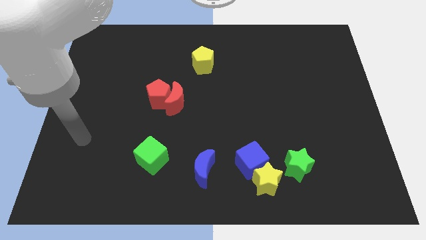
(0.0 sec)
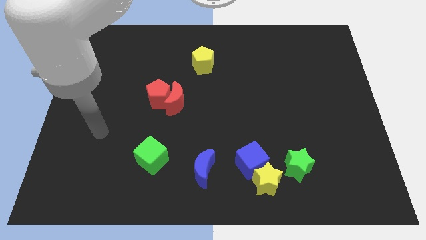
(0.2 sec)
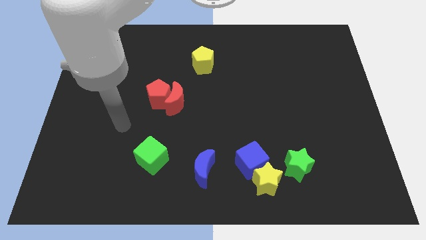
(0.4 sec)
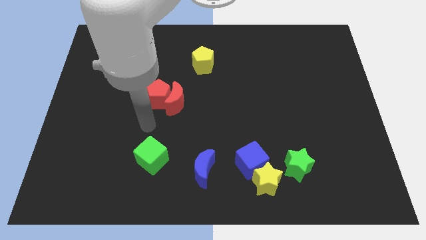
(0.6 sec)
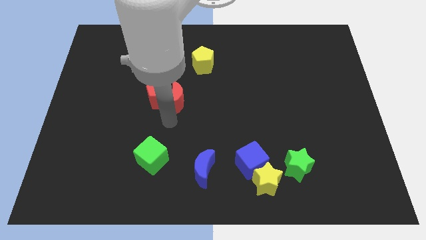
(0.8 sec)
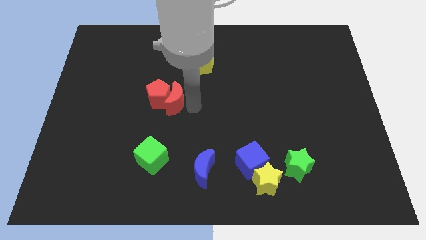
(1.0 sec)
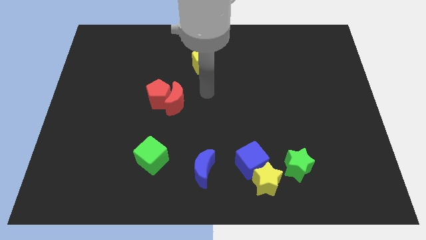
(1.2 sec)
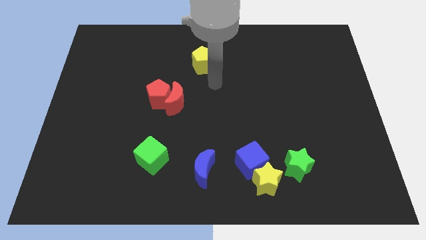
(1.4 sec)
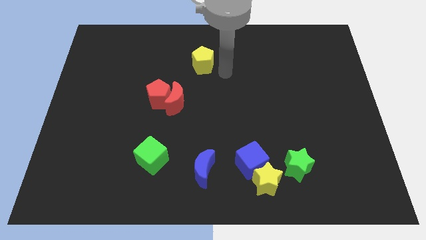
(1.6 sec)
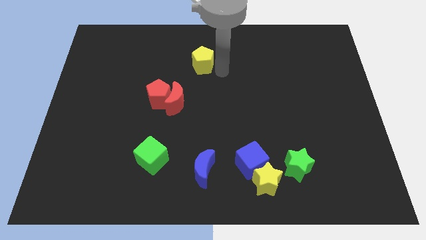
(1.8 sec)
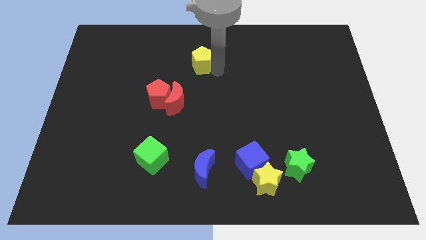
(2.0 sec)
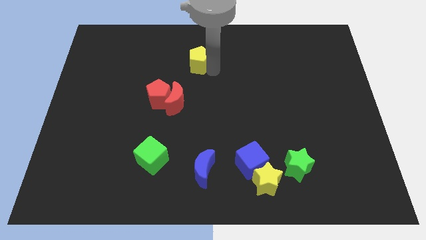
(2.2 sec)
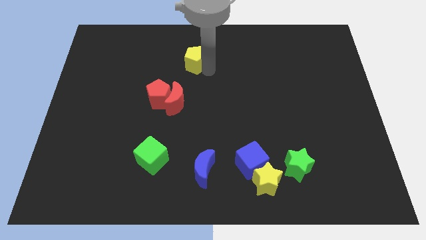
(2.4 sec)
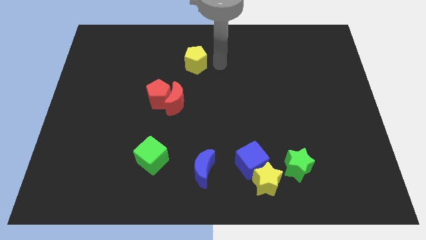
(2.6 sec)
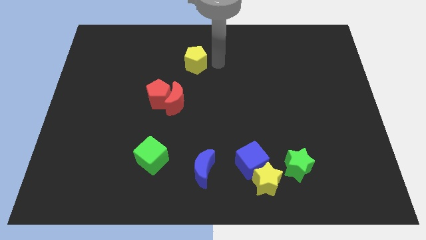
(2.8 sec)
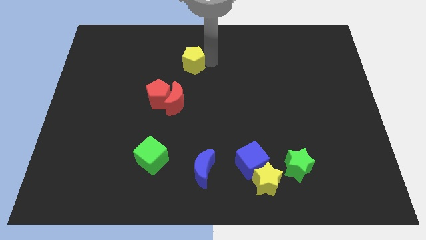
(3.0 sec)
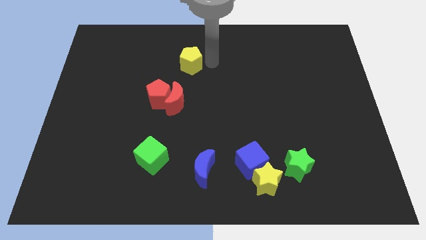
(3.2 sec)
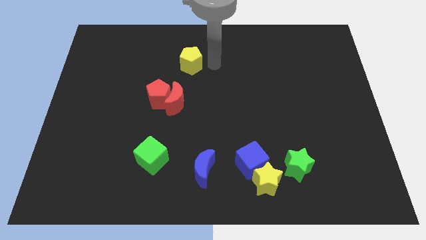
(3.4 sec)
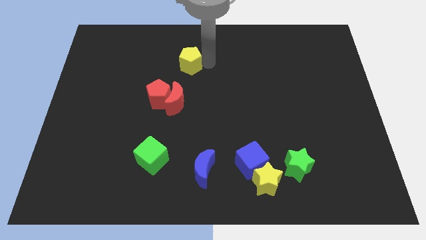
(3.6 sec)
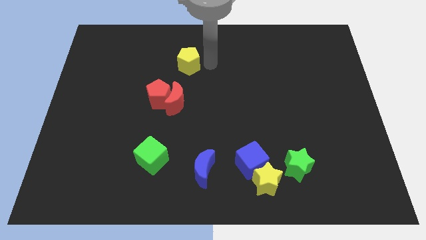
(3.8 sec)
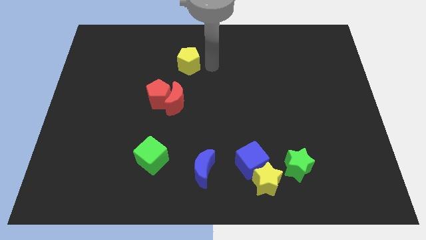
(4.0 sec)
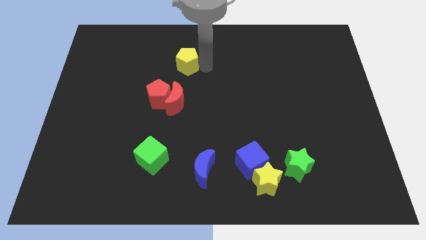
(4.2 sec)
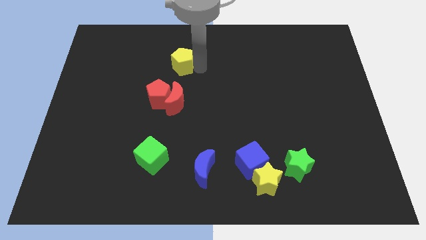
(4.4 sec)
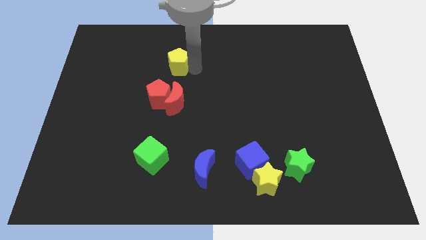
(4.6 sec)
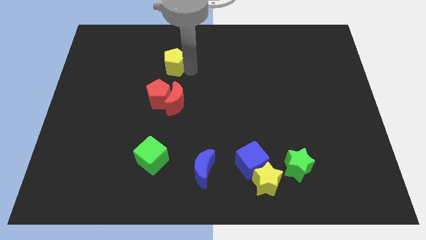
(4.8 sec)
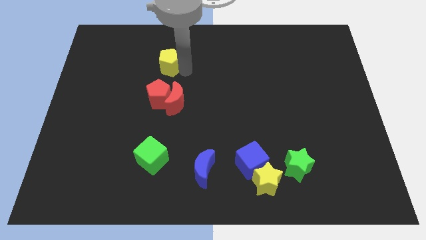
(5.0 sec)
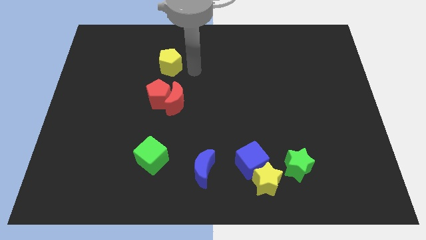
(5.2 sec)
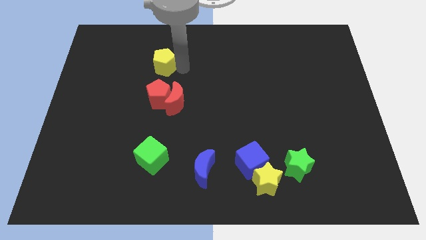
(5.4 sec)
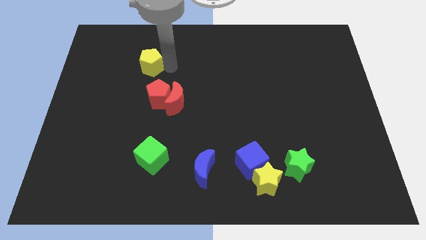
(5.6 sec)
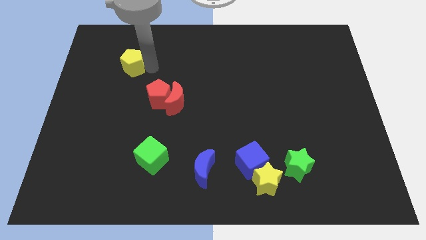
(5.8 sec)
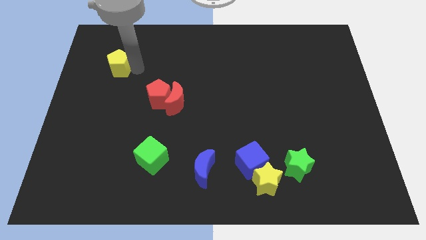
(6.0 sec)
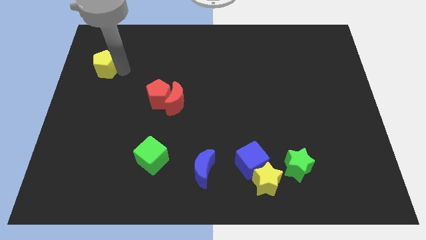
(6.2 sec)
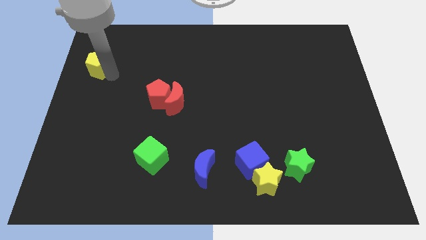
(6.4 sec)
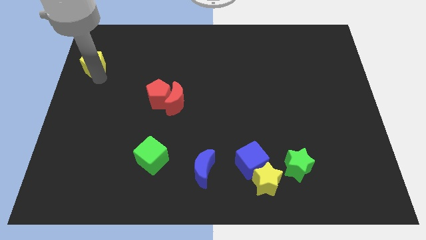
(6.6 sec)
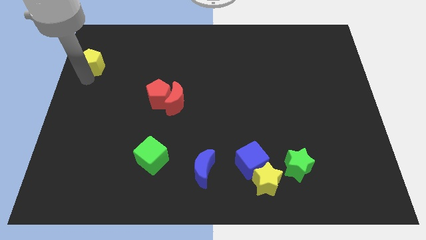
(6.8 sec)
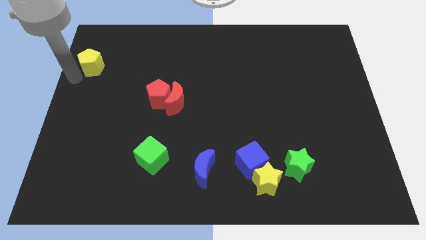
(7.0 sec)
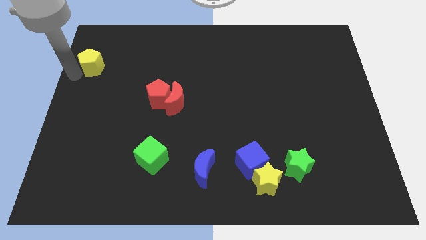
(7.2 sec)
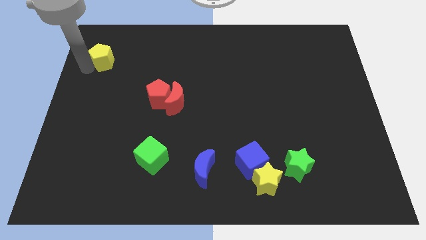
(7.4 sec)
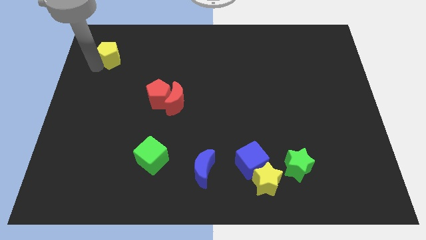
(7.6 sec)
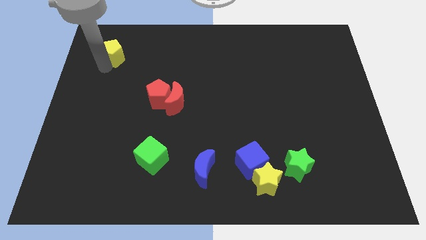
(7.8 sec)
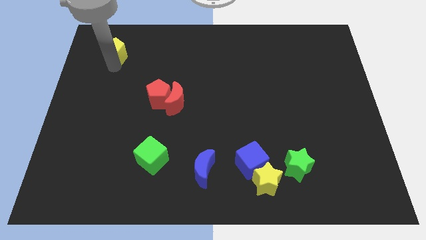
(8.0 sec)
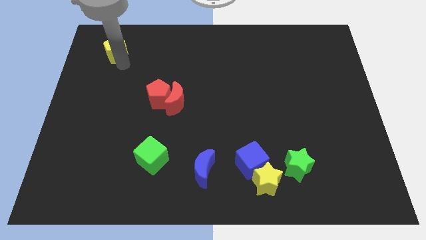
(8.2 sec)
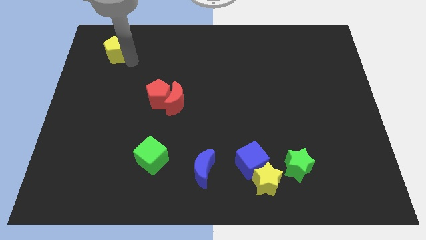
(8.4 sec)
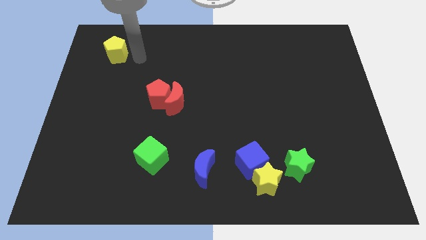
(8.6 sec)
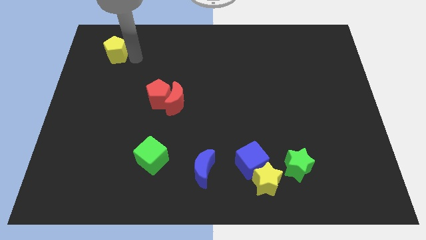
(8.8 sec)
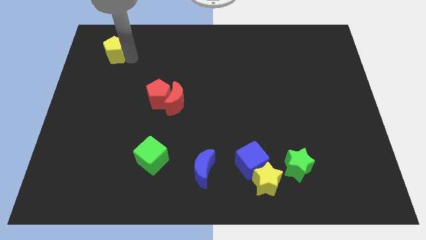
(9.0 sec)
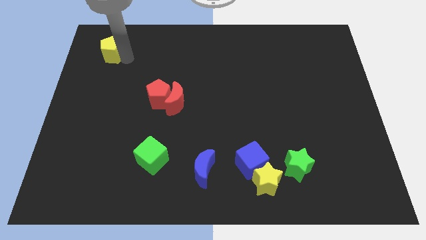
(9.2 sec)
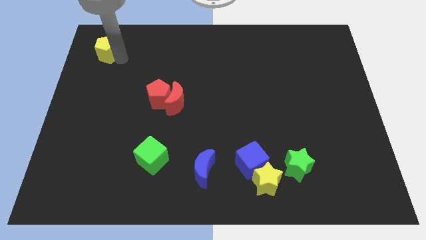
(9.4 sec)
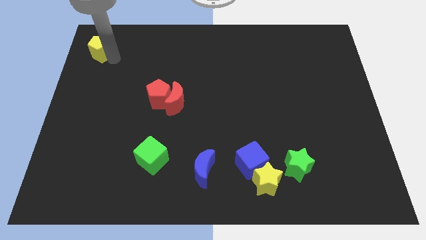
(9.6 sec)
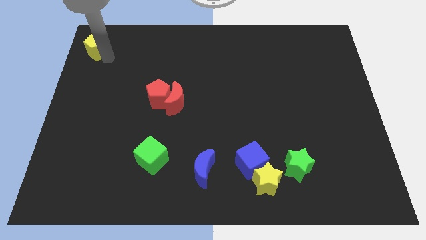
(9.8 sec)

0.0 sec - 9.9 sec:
slide the yellow pentagon to the top left corner

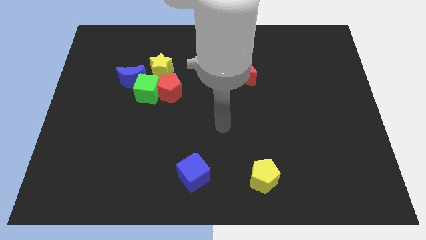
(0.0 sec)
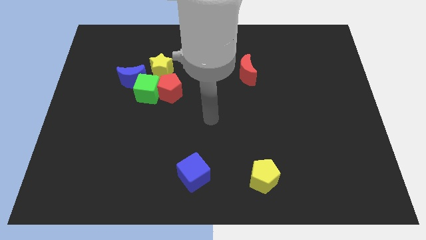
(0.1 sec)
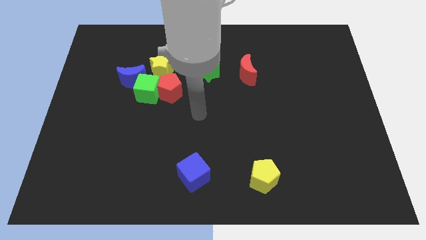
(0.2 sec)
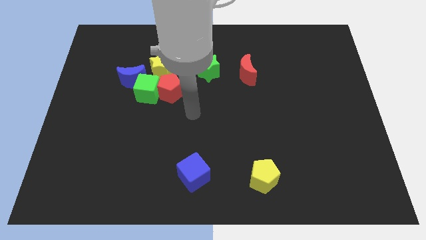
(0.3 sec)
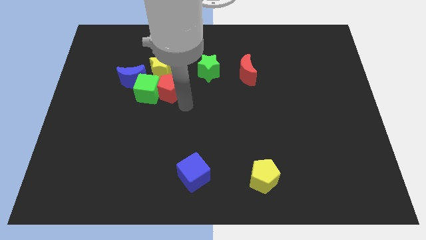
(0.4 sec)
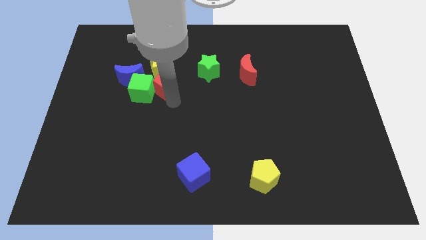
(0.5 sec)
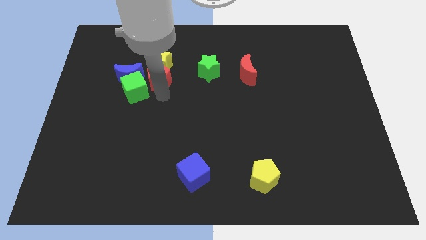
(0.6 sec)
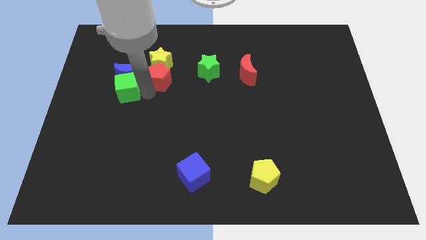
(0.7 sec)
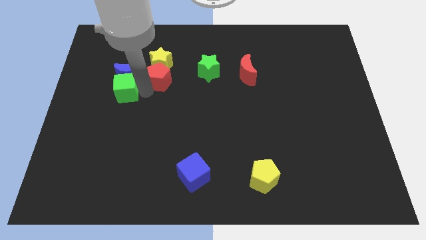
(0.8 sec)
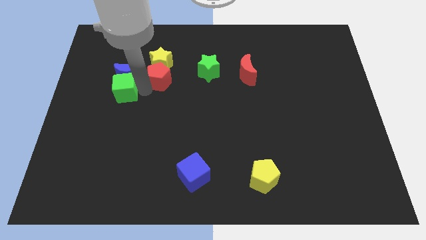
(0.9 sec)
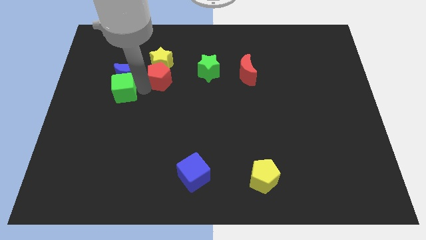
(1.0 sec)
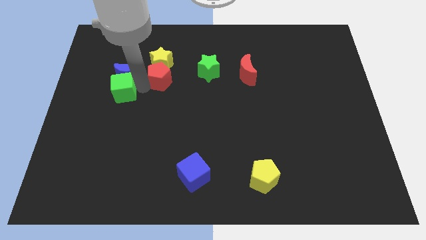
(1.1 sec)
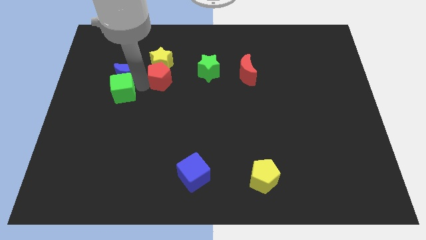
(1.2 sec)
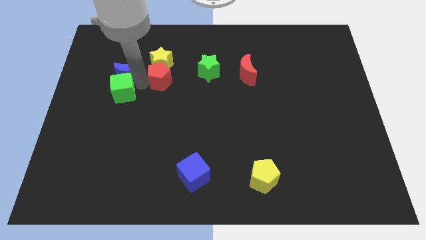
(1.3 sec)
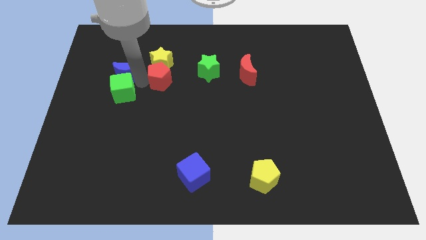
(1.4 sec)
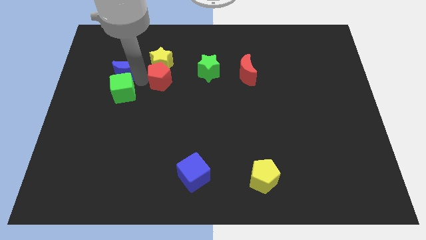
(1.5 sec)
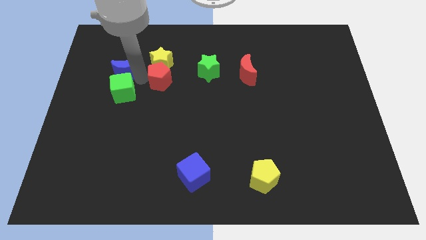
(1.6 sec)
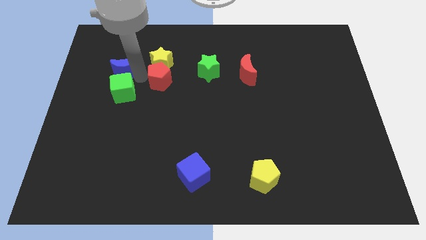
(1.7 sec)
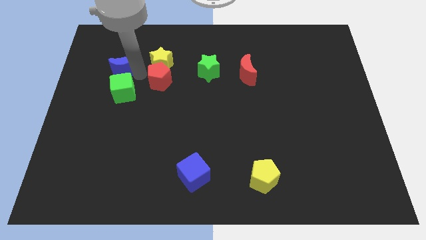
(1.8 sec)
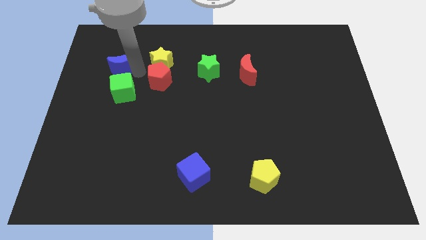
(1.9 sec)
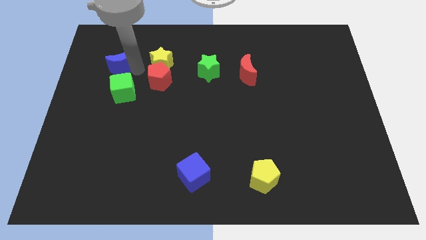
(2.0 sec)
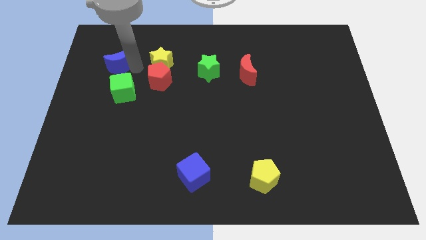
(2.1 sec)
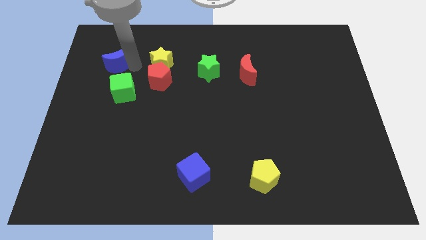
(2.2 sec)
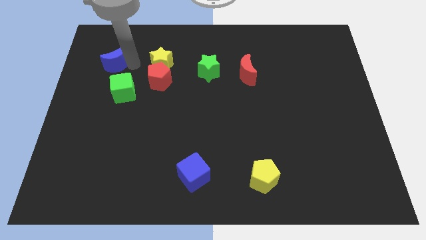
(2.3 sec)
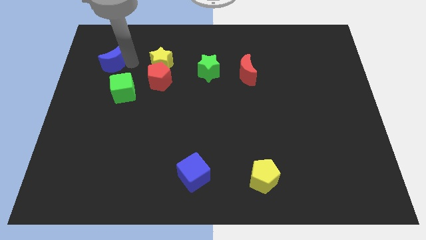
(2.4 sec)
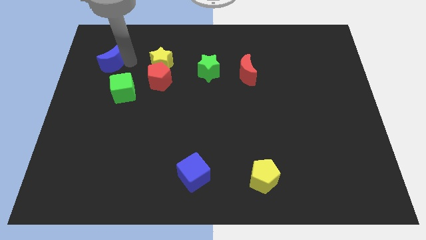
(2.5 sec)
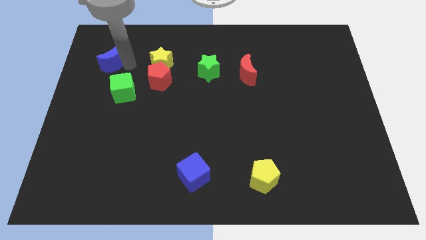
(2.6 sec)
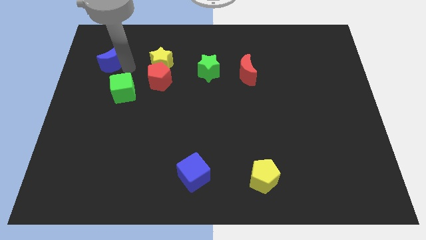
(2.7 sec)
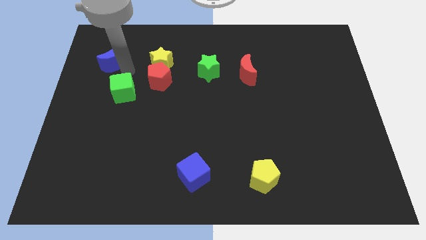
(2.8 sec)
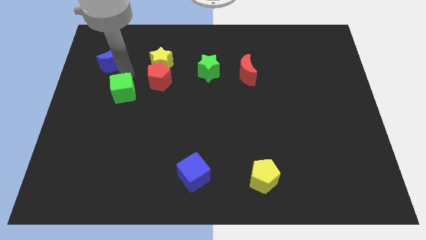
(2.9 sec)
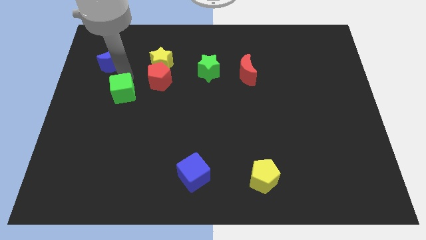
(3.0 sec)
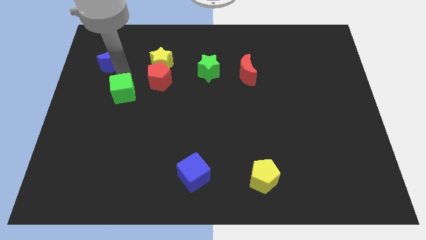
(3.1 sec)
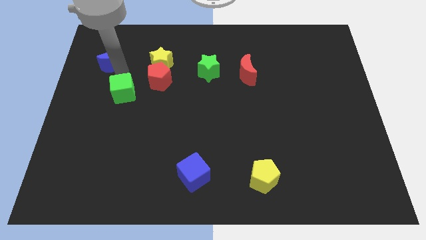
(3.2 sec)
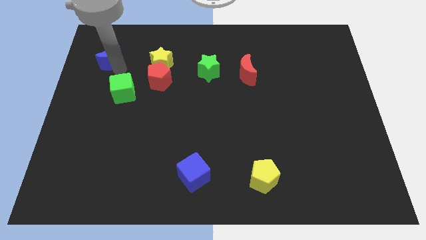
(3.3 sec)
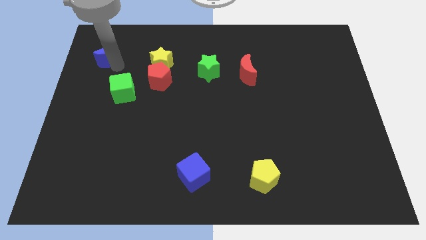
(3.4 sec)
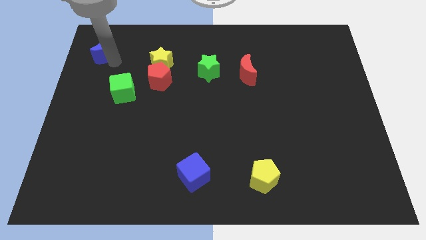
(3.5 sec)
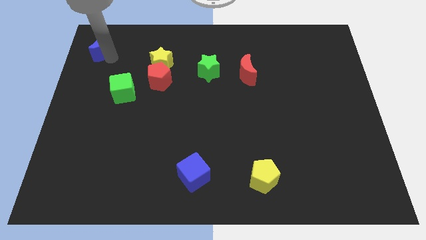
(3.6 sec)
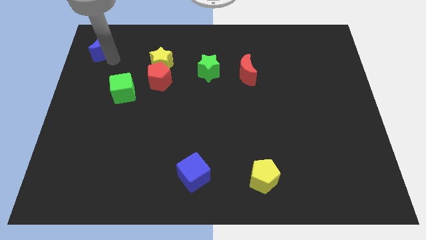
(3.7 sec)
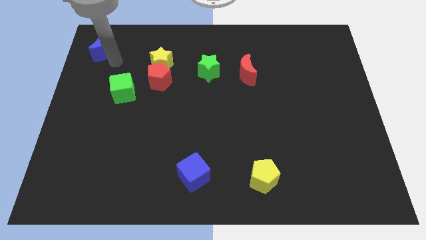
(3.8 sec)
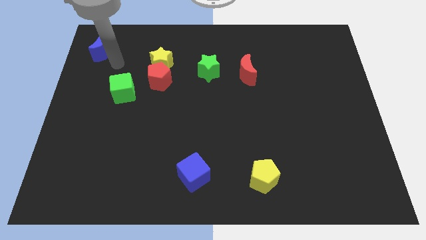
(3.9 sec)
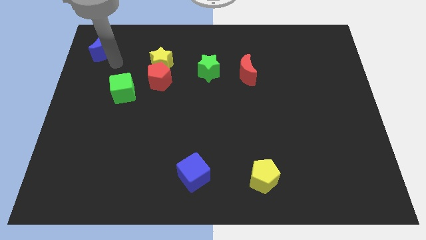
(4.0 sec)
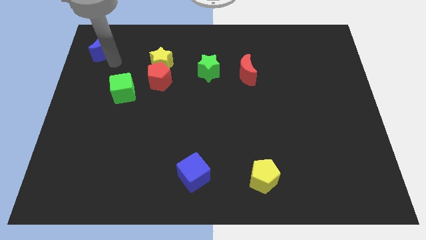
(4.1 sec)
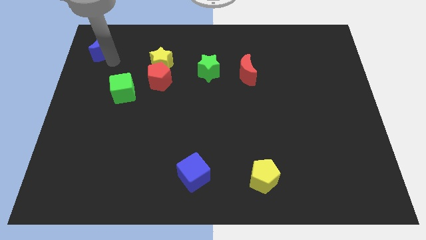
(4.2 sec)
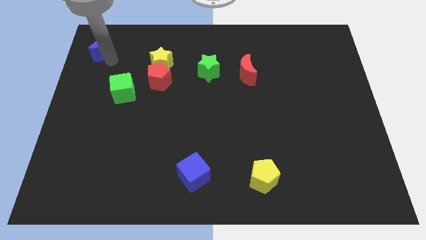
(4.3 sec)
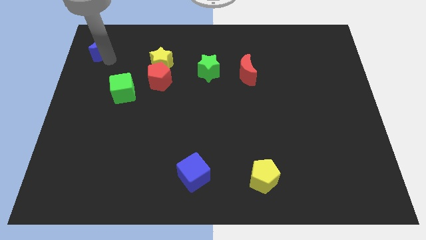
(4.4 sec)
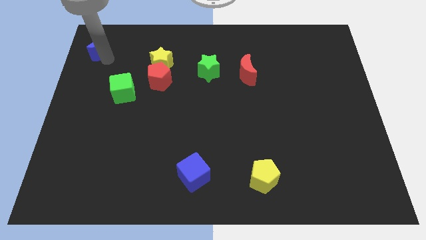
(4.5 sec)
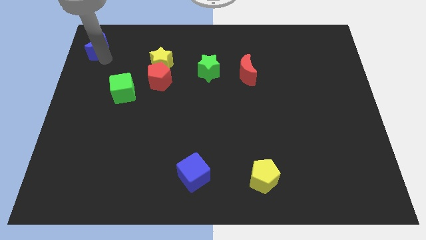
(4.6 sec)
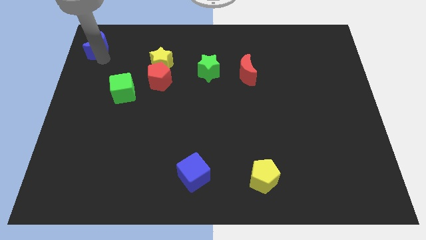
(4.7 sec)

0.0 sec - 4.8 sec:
slide the blue moon to the top left corner
